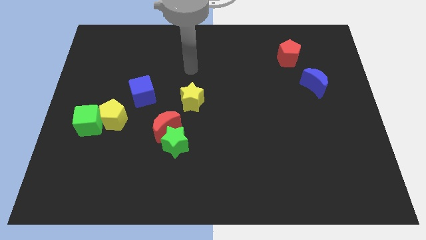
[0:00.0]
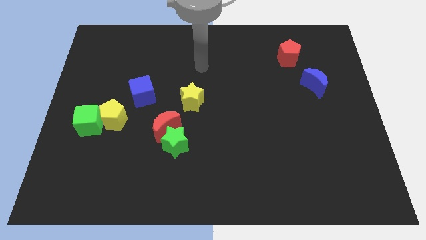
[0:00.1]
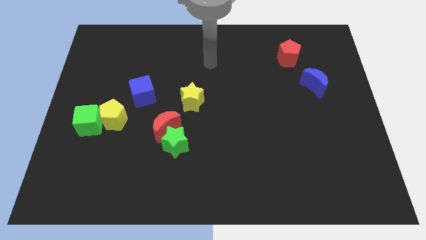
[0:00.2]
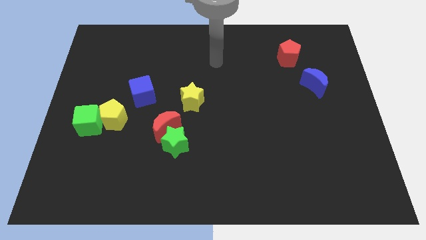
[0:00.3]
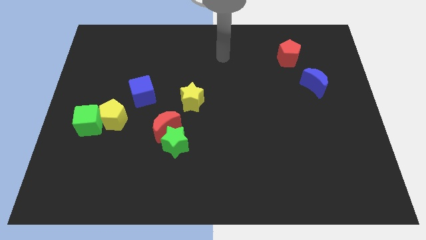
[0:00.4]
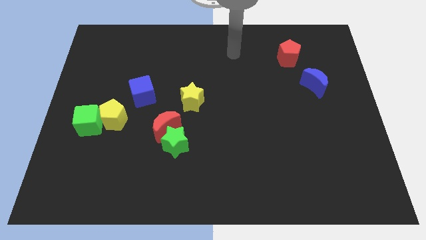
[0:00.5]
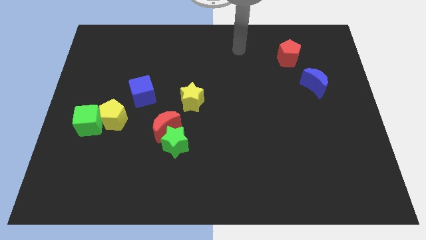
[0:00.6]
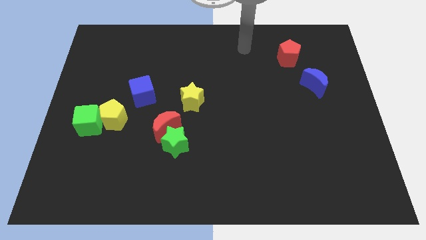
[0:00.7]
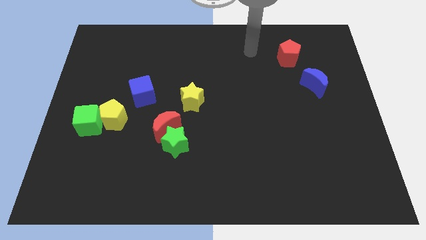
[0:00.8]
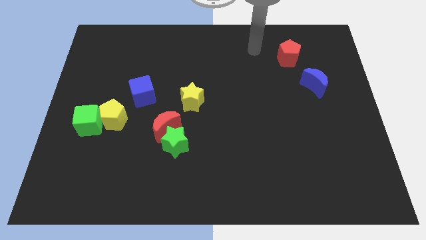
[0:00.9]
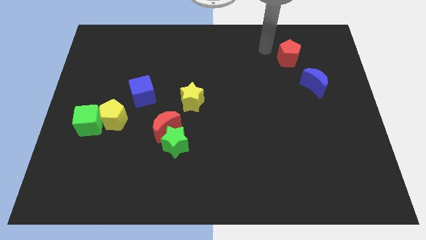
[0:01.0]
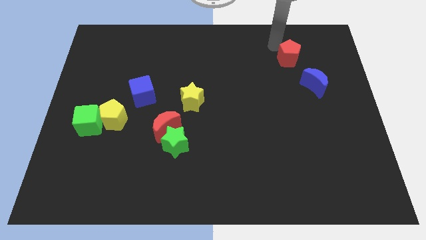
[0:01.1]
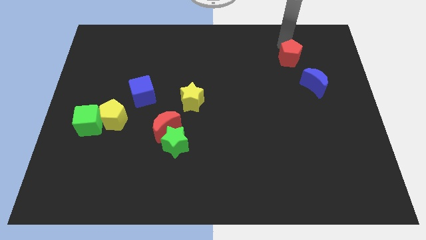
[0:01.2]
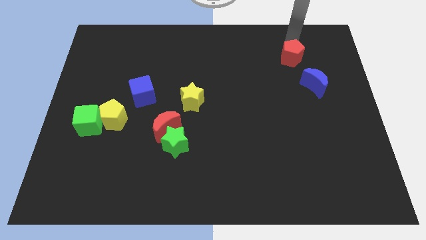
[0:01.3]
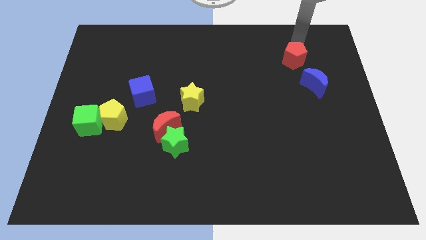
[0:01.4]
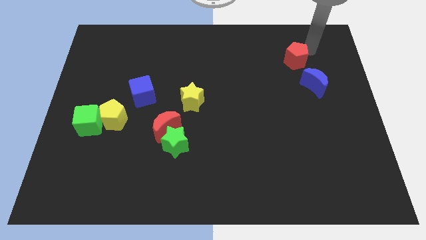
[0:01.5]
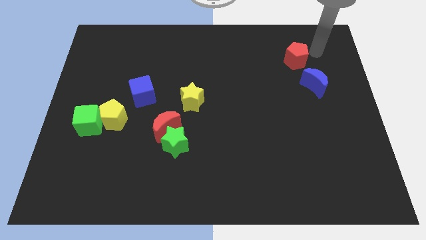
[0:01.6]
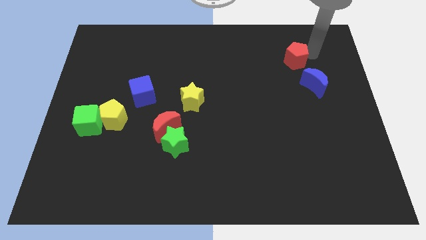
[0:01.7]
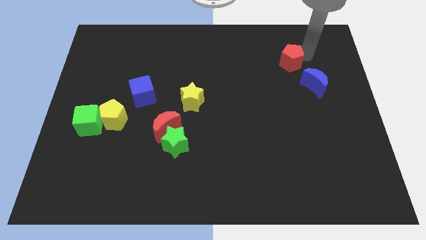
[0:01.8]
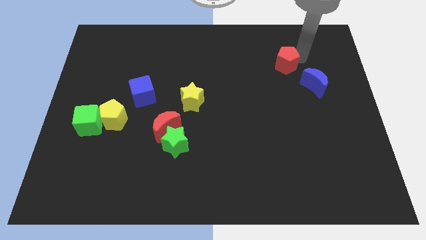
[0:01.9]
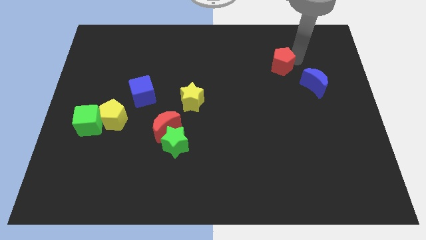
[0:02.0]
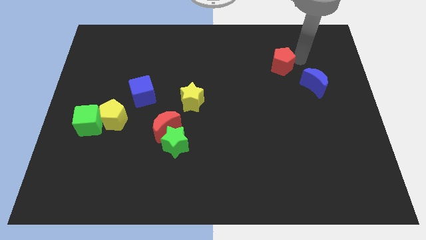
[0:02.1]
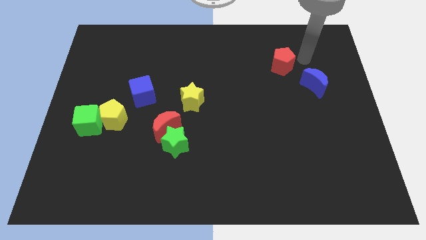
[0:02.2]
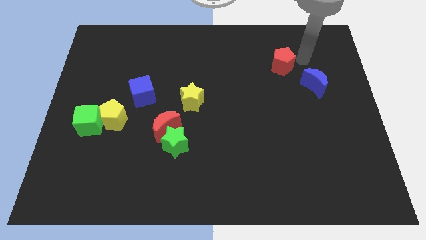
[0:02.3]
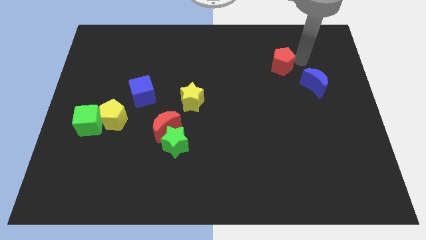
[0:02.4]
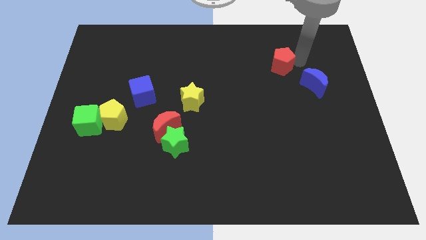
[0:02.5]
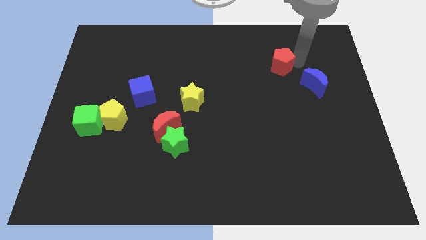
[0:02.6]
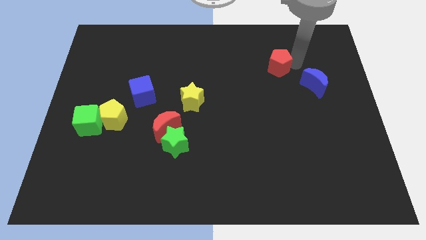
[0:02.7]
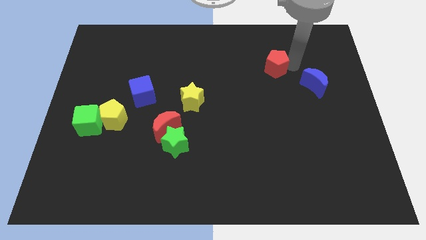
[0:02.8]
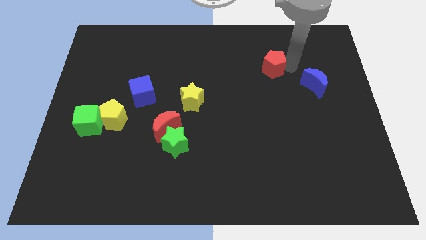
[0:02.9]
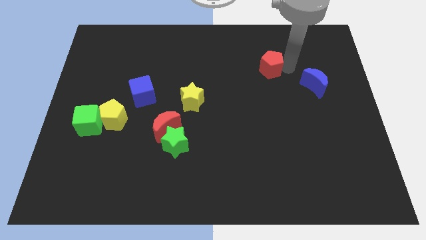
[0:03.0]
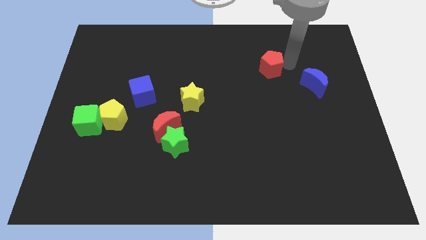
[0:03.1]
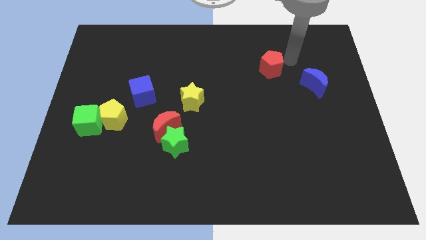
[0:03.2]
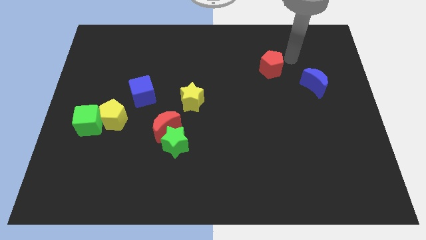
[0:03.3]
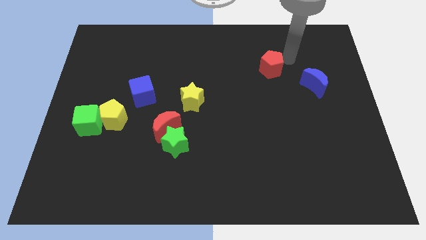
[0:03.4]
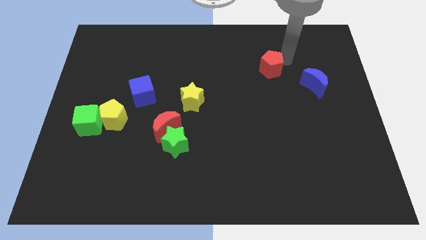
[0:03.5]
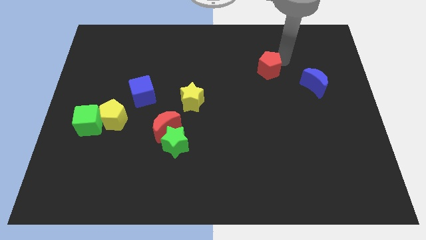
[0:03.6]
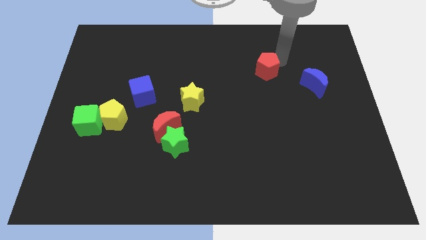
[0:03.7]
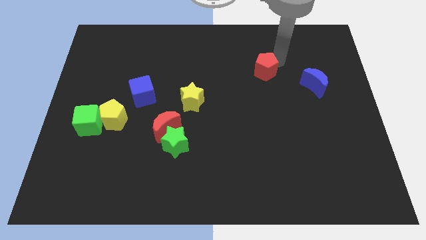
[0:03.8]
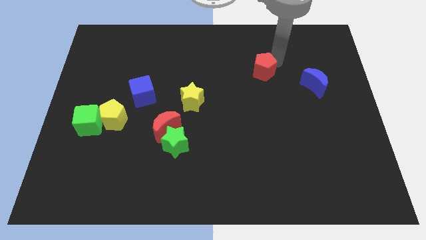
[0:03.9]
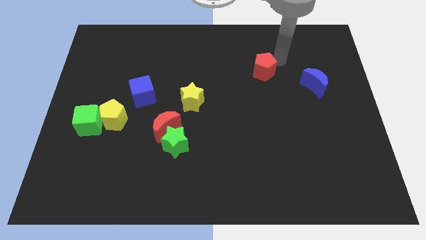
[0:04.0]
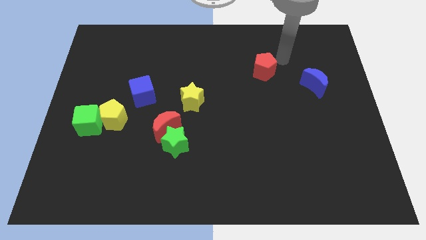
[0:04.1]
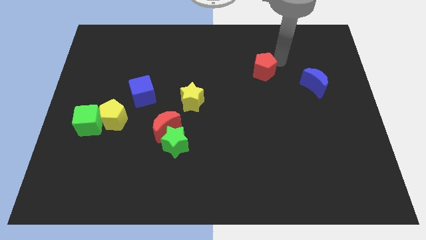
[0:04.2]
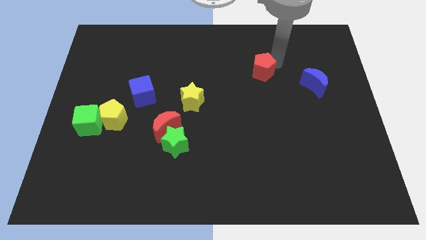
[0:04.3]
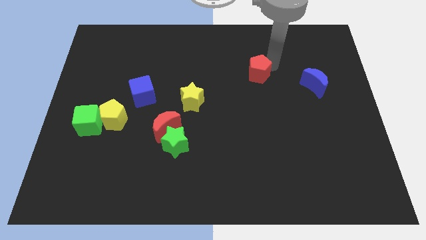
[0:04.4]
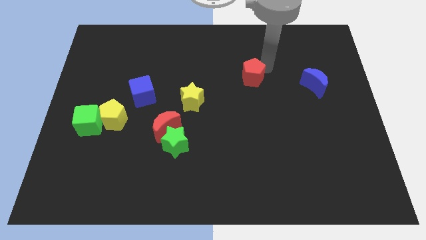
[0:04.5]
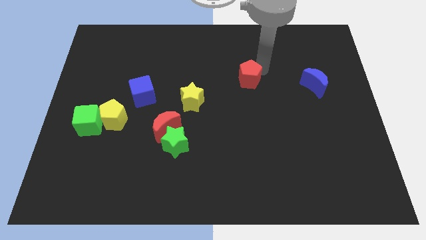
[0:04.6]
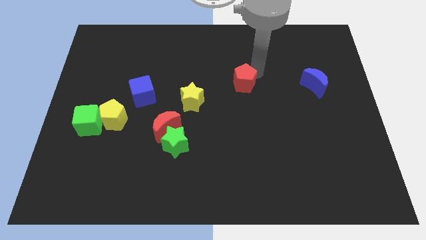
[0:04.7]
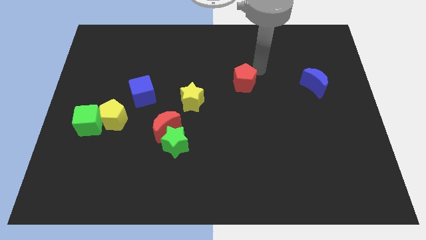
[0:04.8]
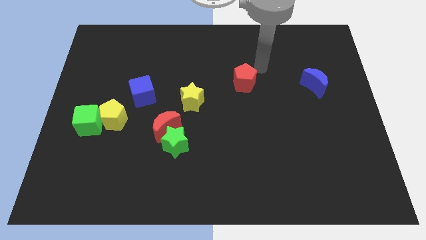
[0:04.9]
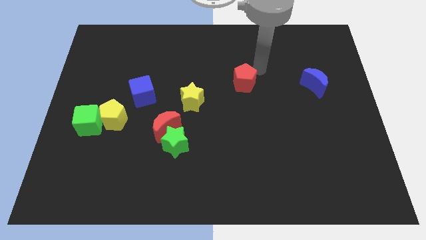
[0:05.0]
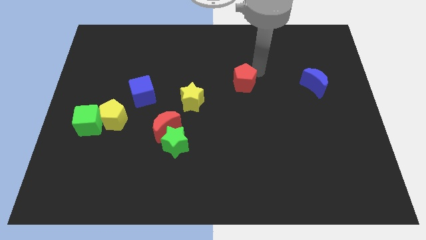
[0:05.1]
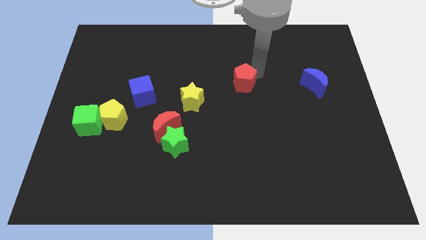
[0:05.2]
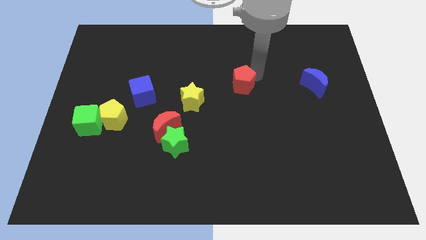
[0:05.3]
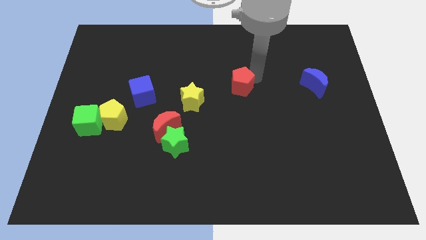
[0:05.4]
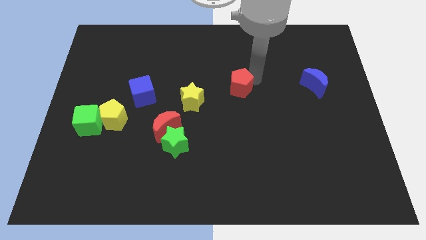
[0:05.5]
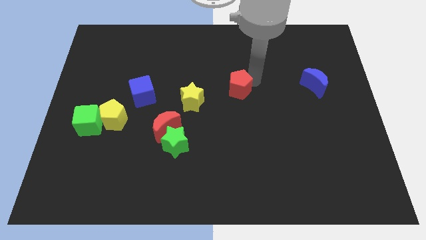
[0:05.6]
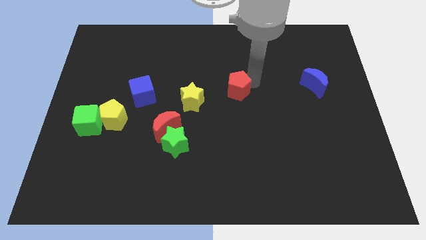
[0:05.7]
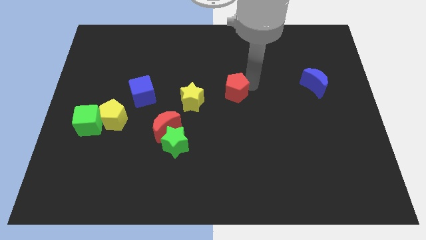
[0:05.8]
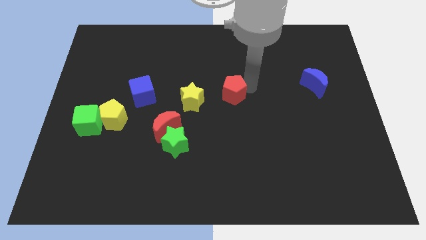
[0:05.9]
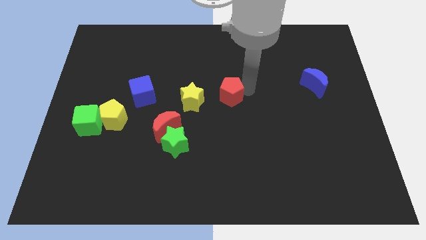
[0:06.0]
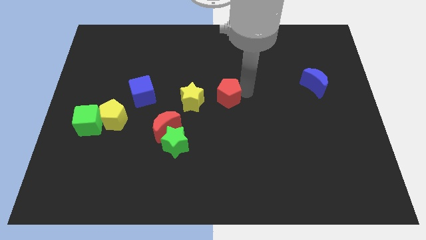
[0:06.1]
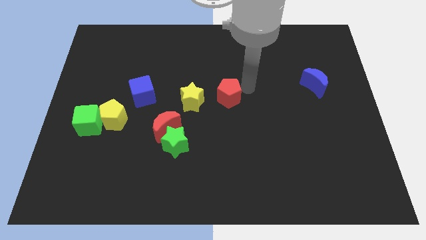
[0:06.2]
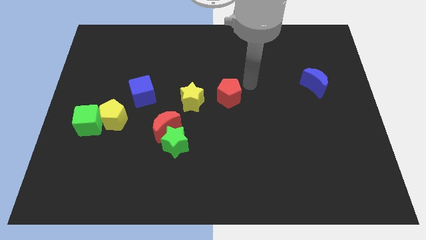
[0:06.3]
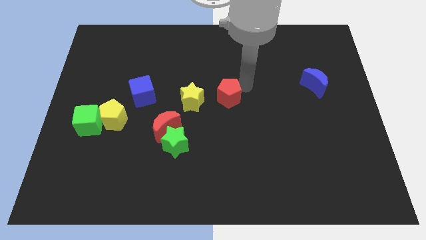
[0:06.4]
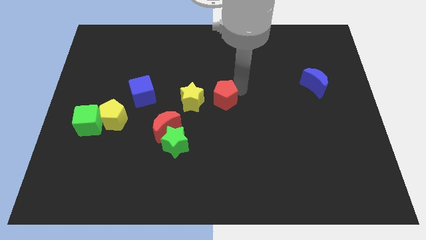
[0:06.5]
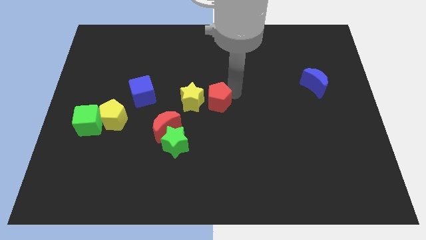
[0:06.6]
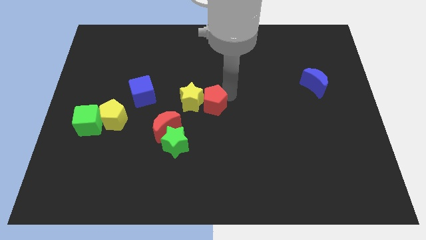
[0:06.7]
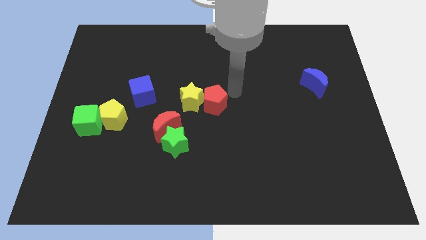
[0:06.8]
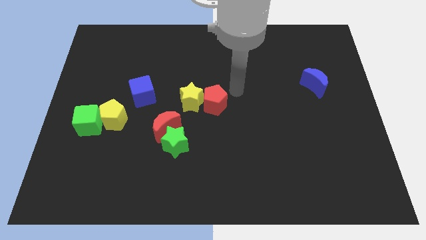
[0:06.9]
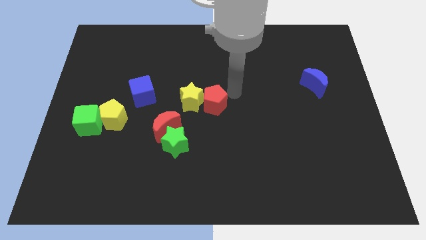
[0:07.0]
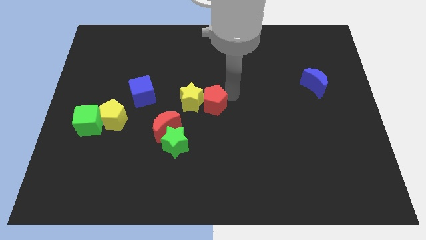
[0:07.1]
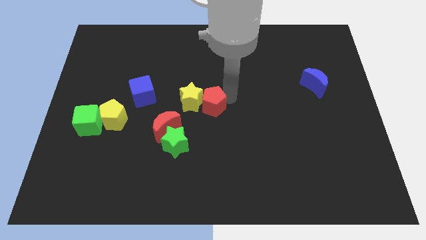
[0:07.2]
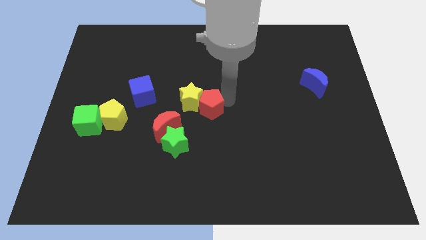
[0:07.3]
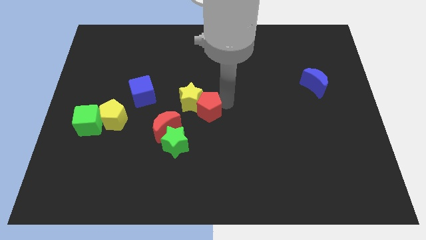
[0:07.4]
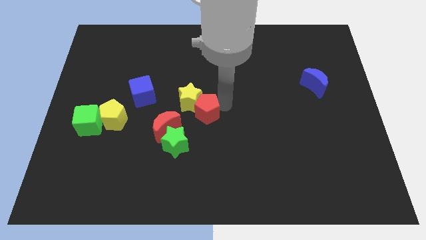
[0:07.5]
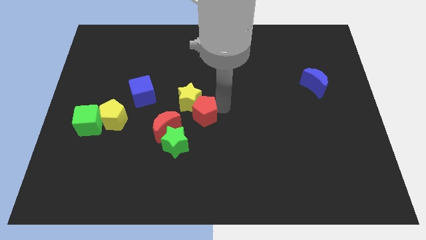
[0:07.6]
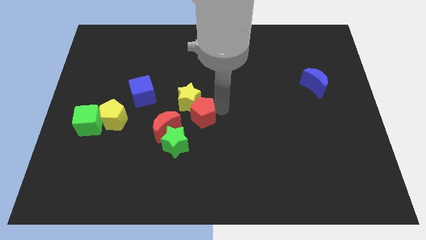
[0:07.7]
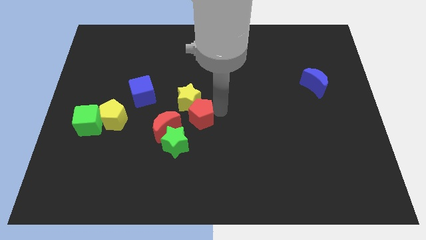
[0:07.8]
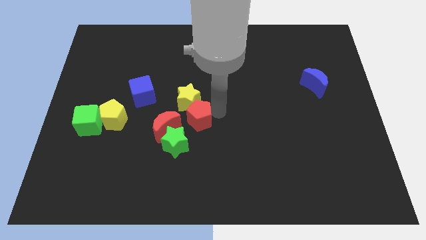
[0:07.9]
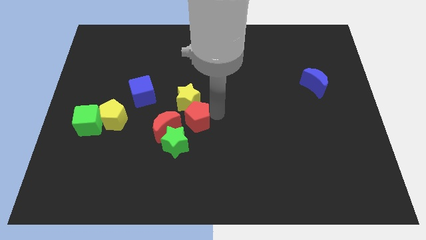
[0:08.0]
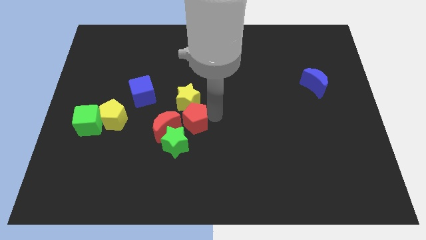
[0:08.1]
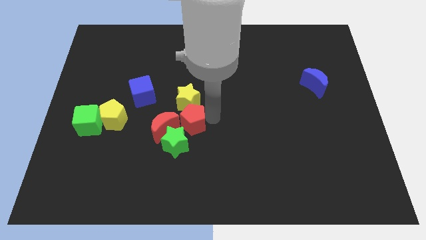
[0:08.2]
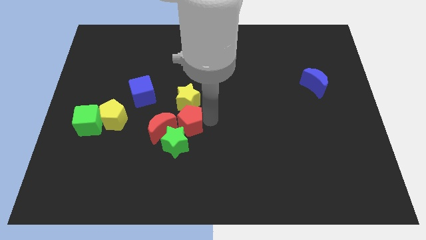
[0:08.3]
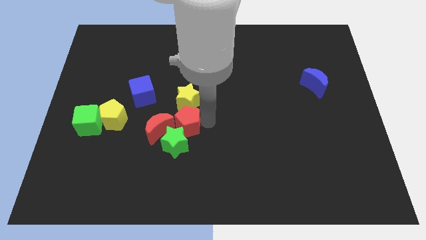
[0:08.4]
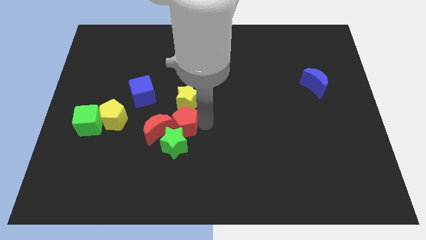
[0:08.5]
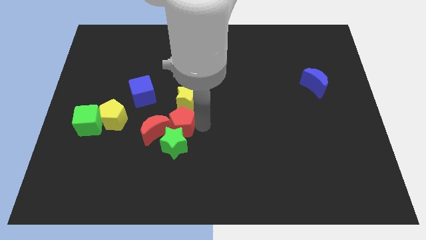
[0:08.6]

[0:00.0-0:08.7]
slide the red pentagon close to the red moon
